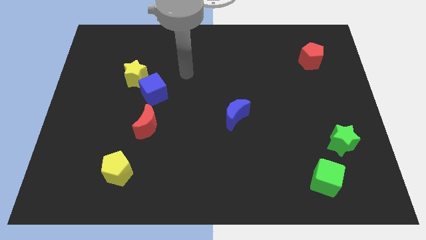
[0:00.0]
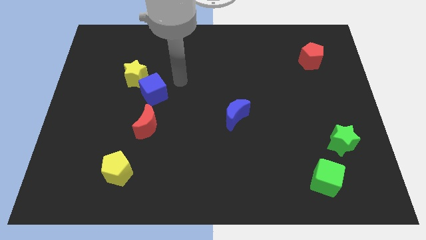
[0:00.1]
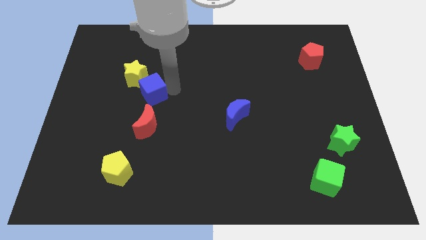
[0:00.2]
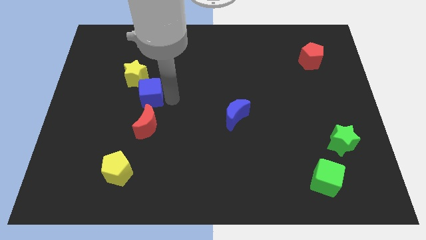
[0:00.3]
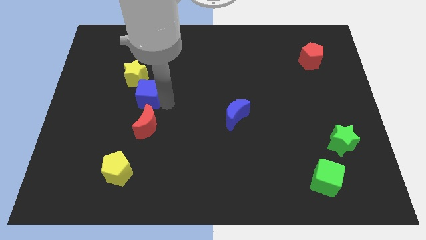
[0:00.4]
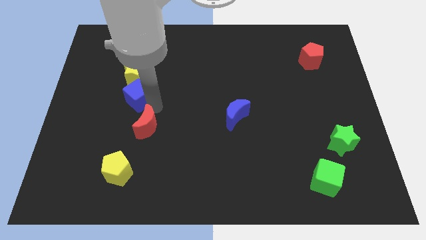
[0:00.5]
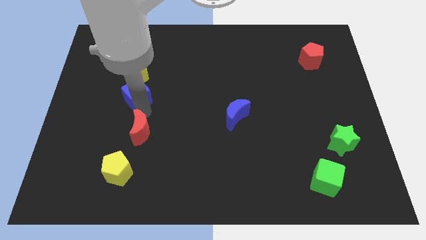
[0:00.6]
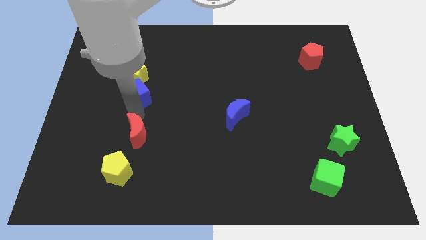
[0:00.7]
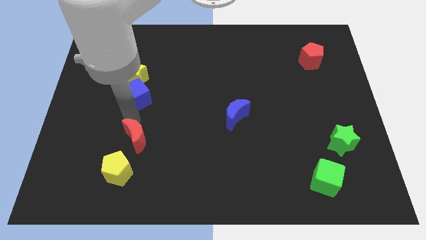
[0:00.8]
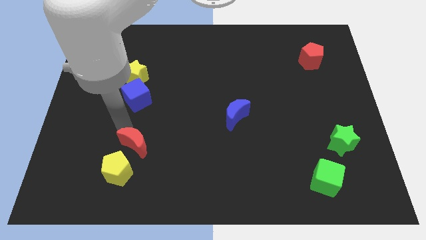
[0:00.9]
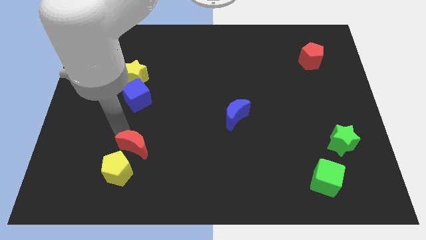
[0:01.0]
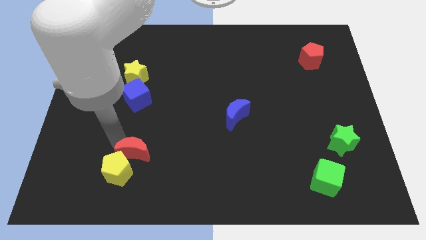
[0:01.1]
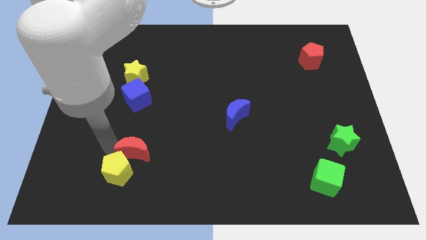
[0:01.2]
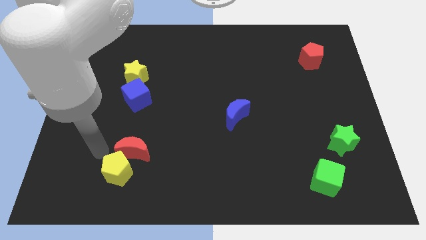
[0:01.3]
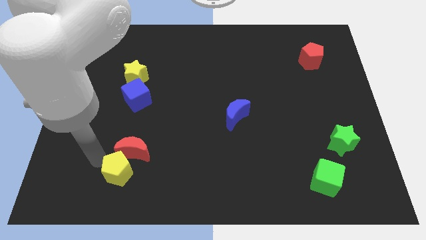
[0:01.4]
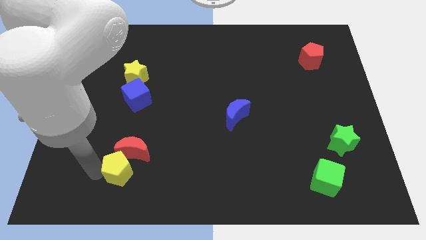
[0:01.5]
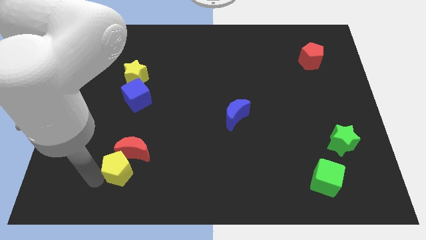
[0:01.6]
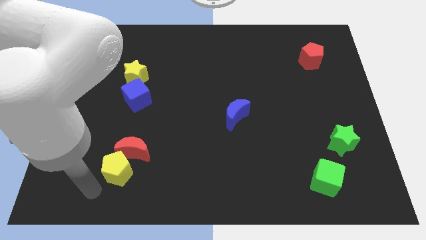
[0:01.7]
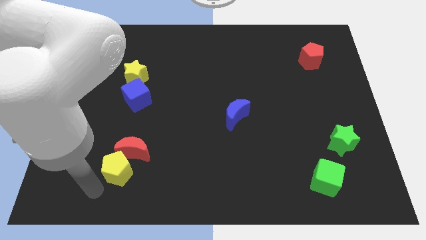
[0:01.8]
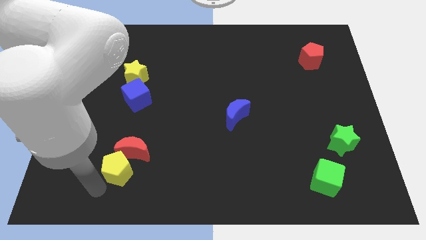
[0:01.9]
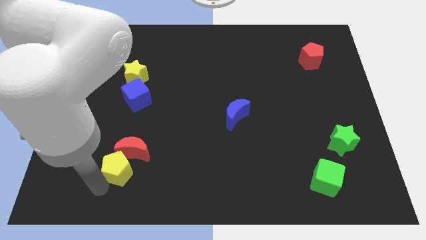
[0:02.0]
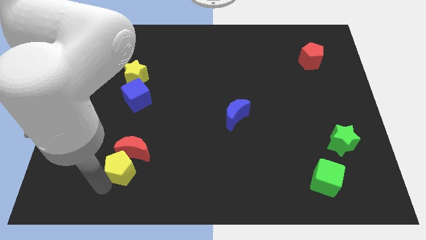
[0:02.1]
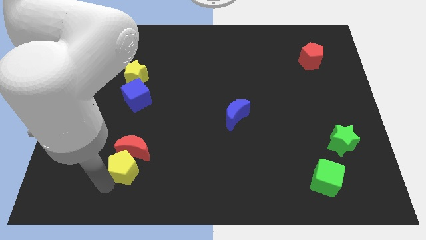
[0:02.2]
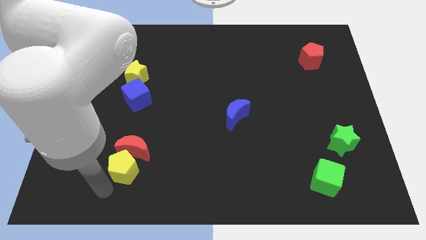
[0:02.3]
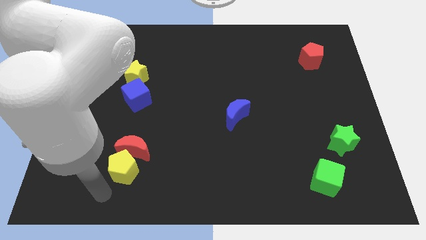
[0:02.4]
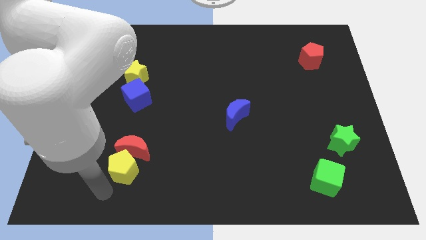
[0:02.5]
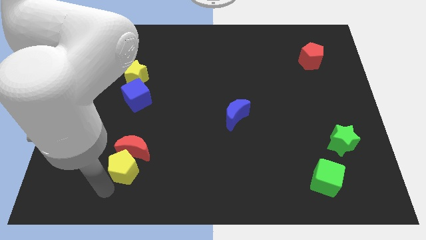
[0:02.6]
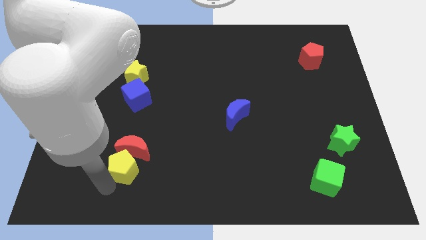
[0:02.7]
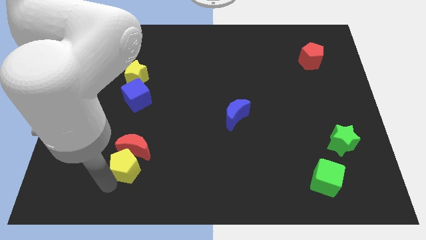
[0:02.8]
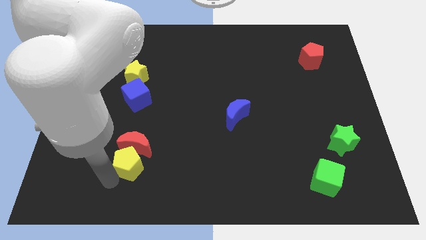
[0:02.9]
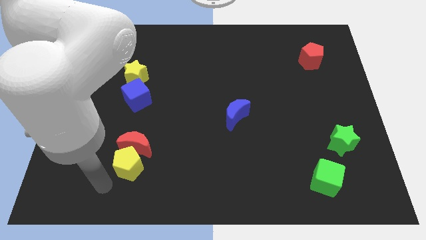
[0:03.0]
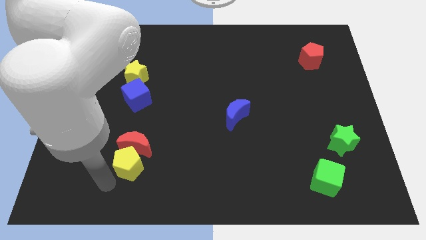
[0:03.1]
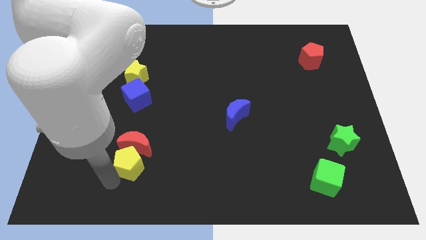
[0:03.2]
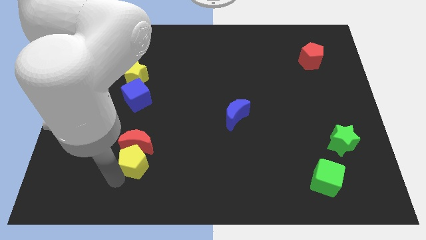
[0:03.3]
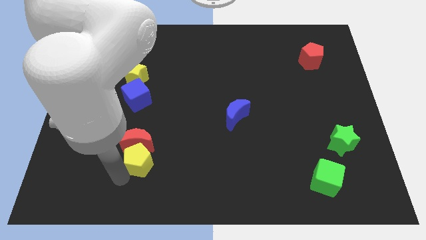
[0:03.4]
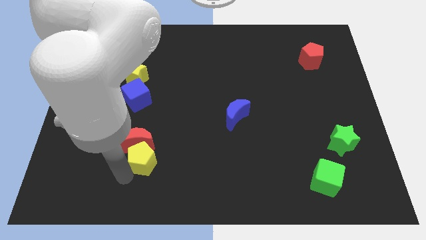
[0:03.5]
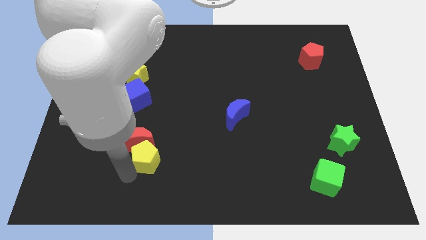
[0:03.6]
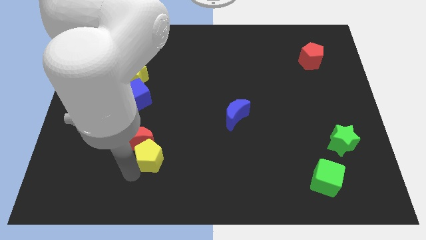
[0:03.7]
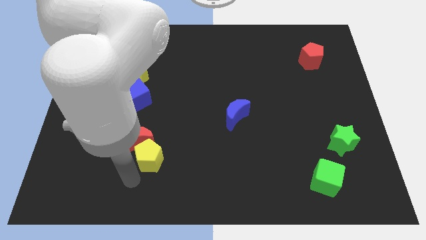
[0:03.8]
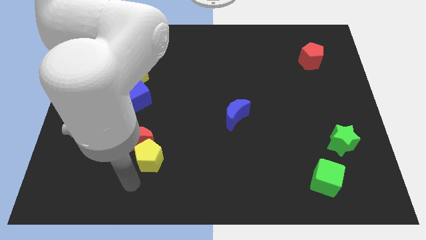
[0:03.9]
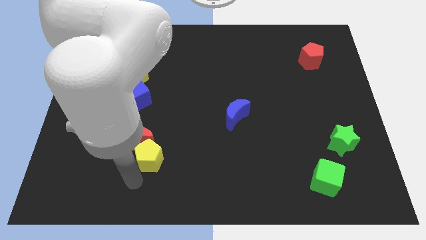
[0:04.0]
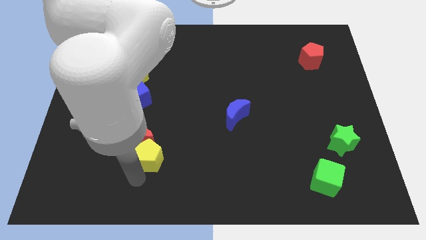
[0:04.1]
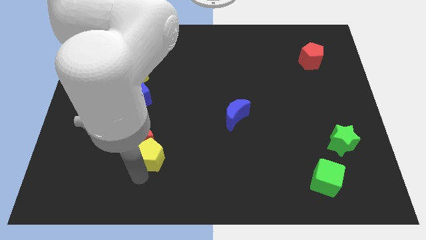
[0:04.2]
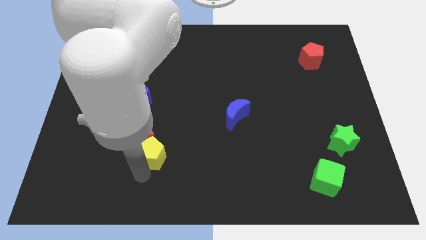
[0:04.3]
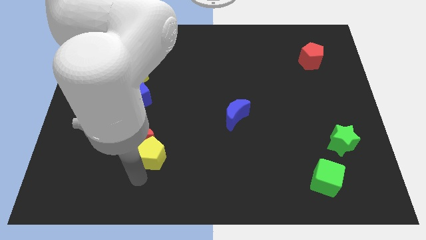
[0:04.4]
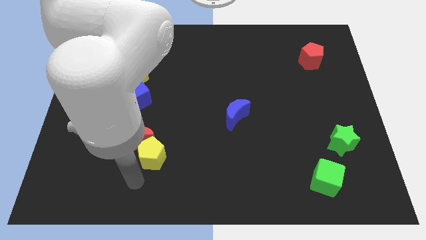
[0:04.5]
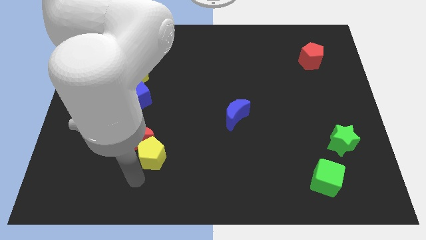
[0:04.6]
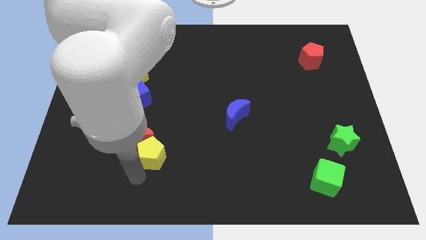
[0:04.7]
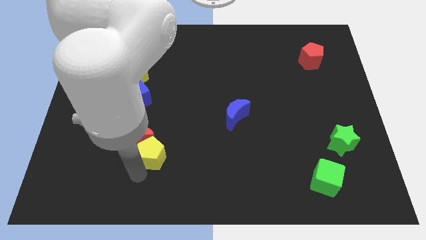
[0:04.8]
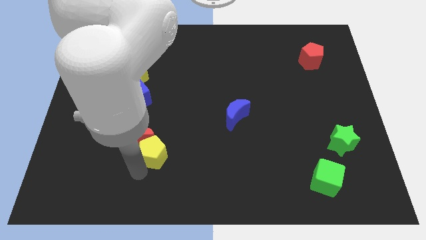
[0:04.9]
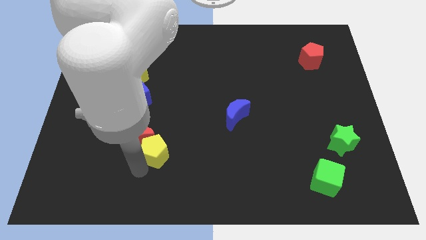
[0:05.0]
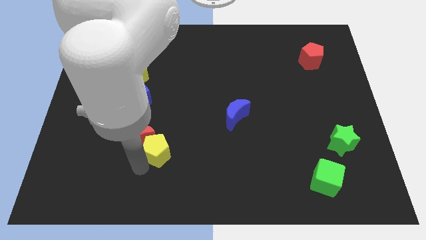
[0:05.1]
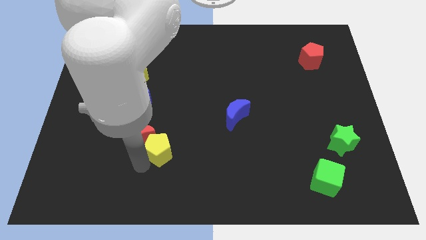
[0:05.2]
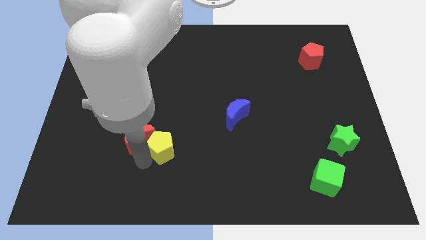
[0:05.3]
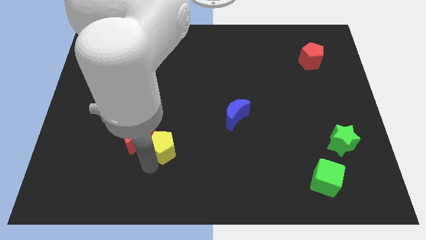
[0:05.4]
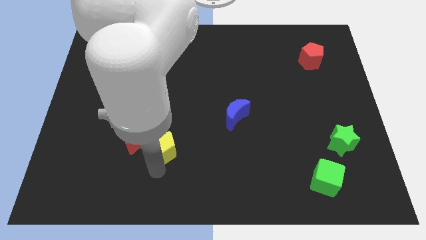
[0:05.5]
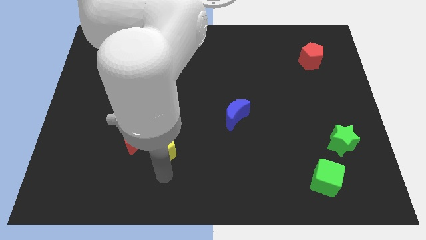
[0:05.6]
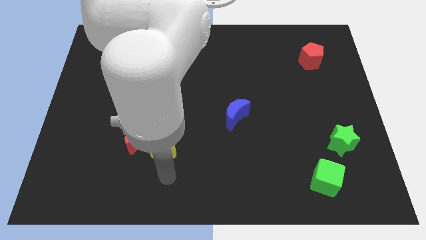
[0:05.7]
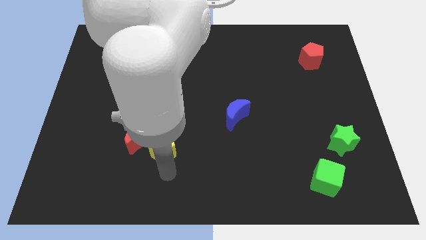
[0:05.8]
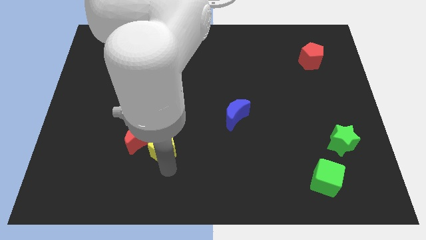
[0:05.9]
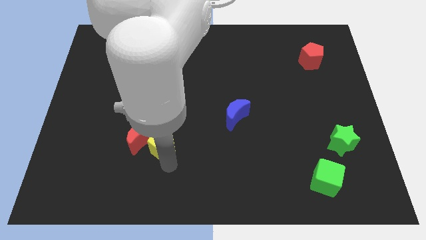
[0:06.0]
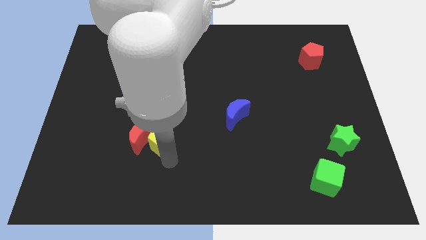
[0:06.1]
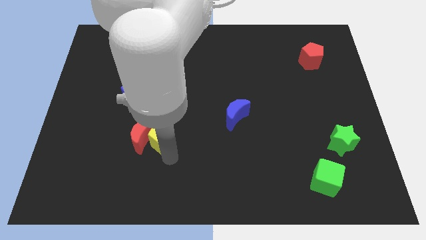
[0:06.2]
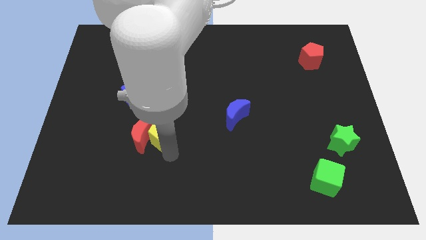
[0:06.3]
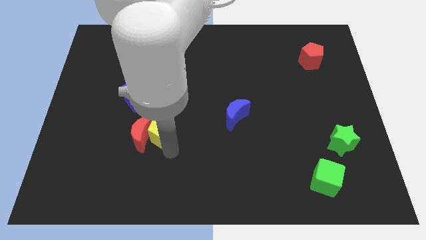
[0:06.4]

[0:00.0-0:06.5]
push the yellow pentagon to the bottom right of the blue cube
